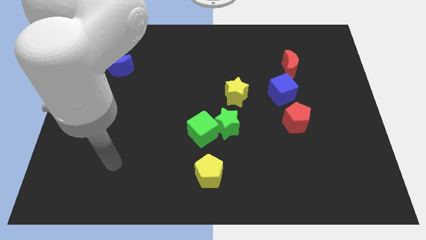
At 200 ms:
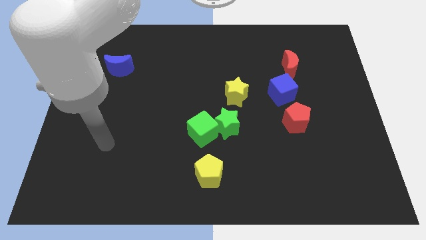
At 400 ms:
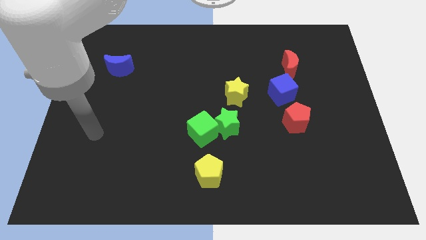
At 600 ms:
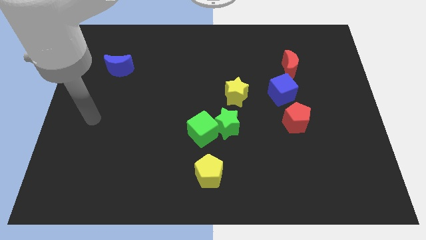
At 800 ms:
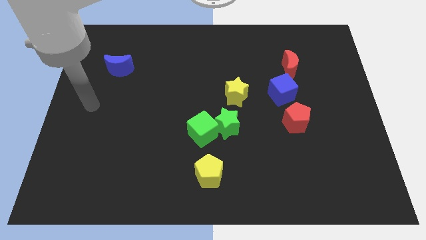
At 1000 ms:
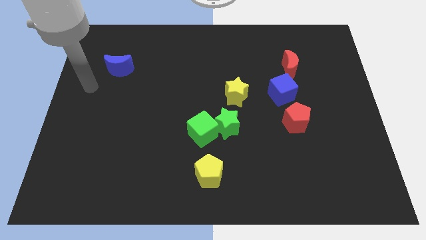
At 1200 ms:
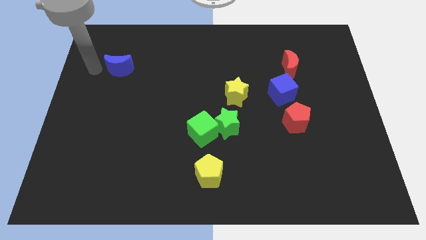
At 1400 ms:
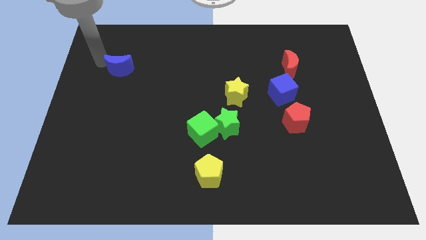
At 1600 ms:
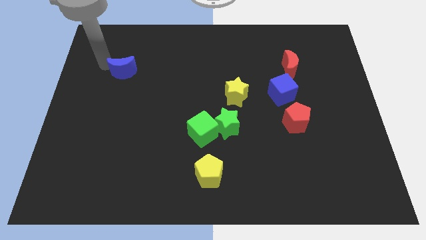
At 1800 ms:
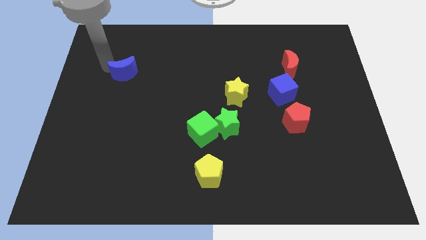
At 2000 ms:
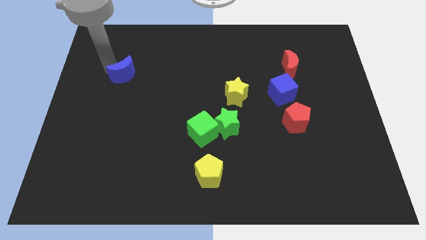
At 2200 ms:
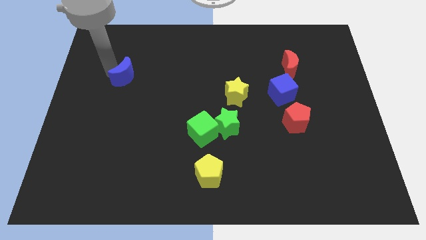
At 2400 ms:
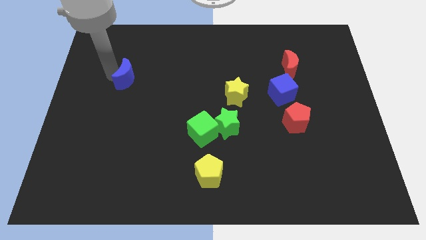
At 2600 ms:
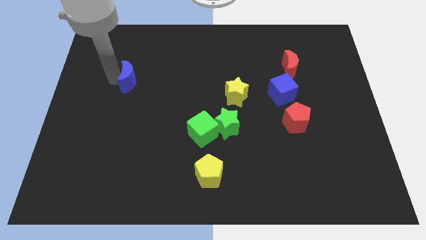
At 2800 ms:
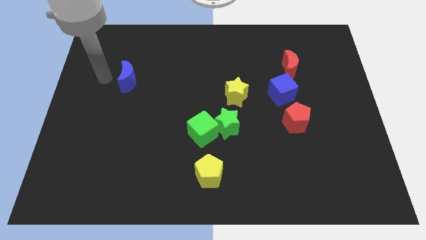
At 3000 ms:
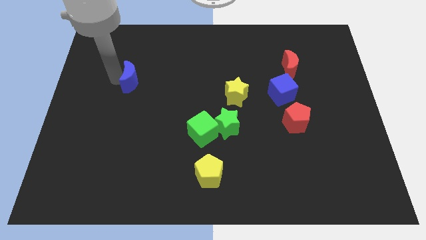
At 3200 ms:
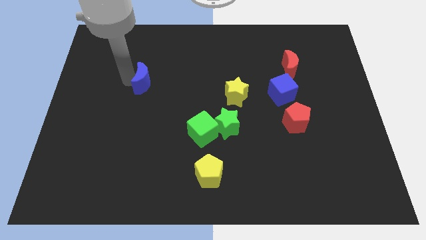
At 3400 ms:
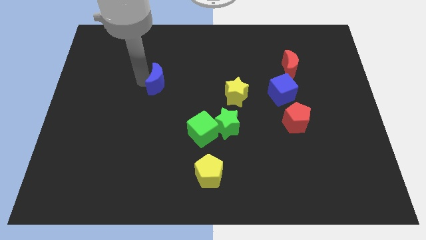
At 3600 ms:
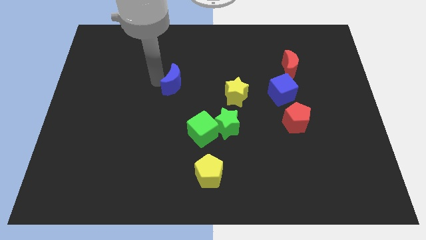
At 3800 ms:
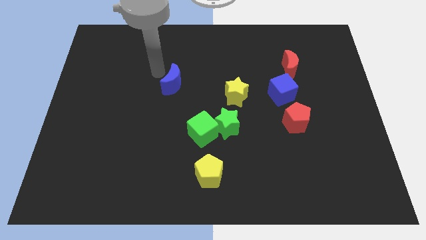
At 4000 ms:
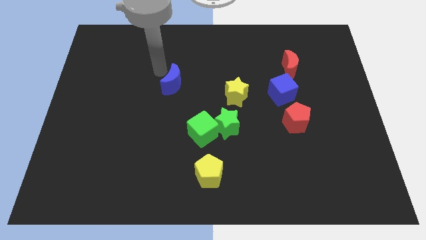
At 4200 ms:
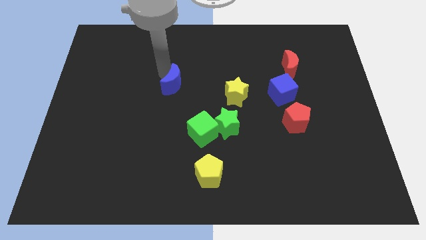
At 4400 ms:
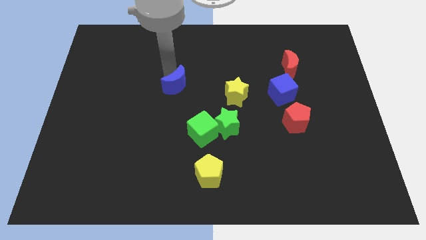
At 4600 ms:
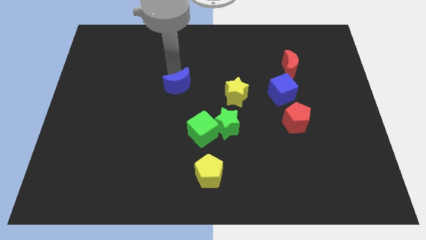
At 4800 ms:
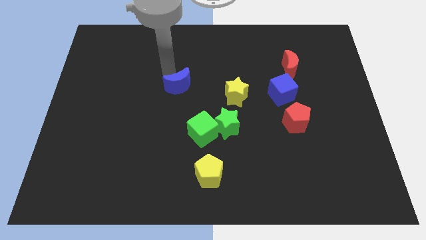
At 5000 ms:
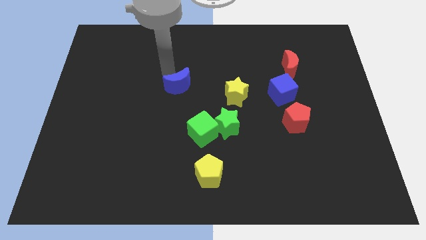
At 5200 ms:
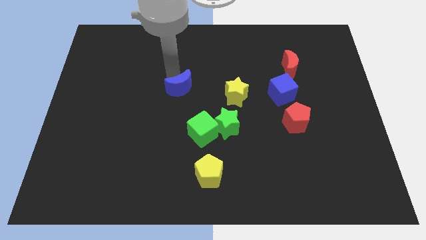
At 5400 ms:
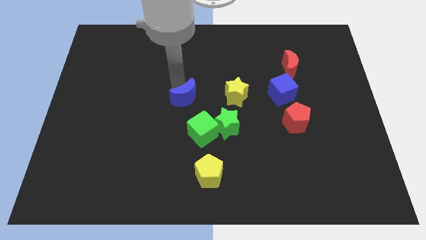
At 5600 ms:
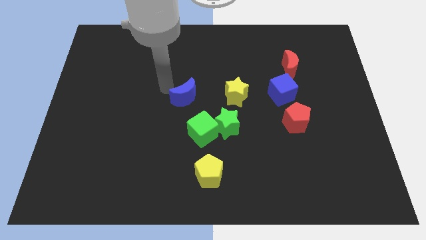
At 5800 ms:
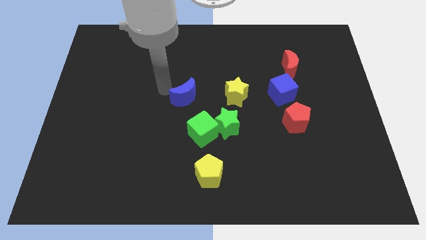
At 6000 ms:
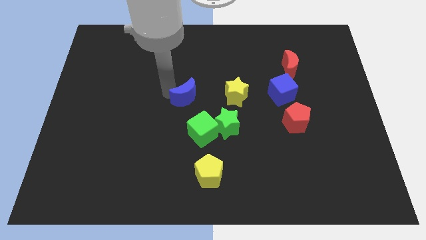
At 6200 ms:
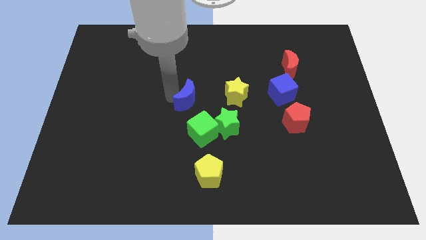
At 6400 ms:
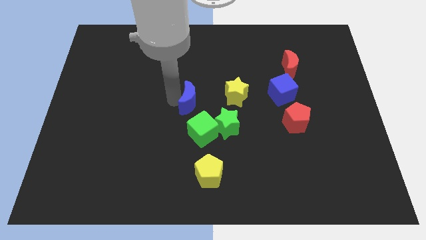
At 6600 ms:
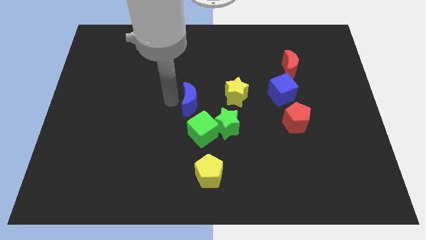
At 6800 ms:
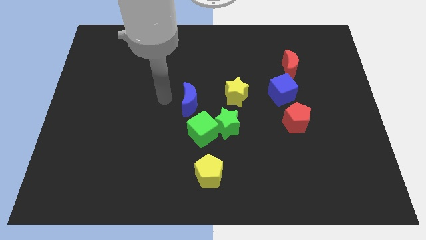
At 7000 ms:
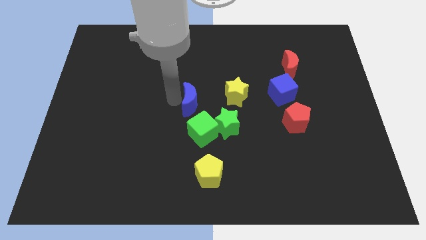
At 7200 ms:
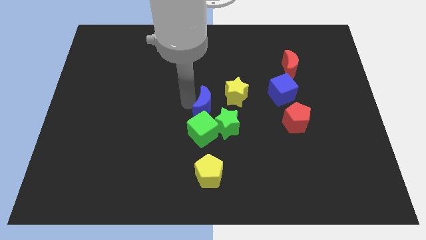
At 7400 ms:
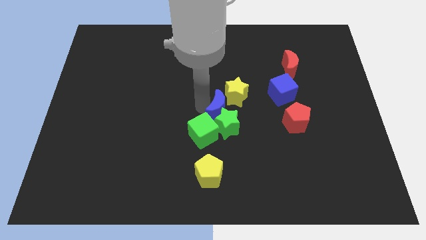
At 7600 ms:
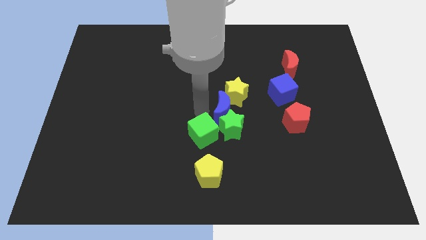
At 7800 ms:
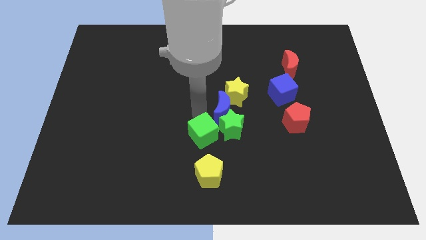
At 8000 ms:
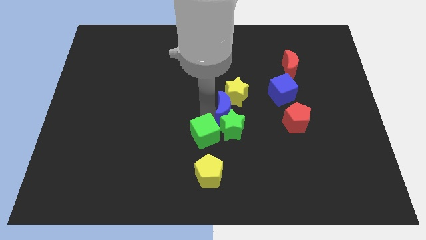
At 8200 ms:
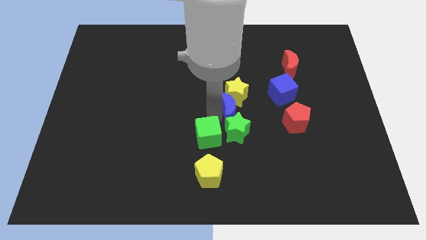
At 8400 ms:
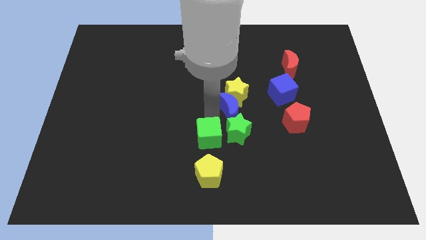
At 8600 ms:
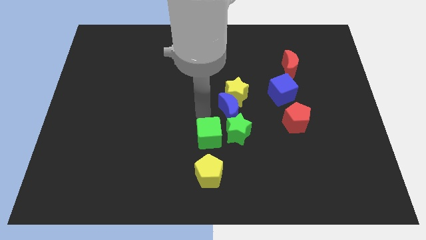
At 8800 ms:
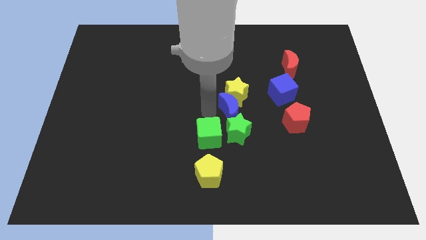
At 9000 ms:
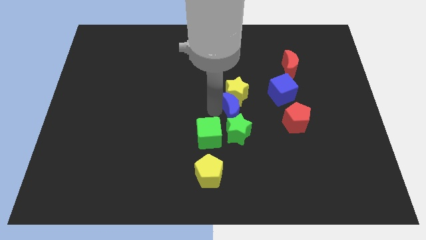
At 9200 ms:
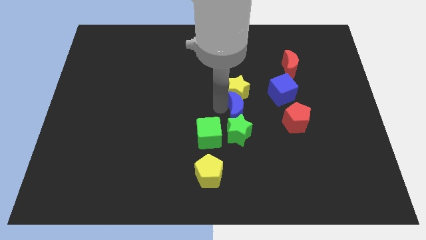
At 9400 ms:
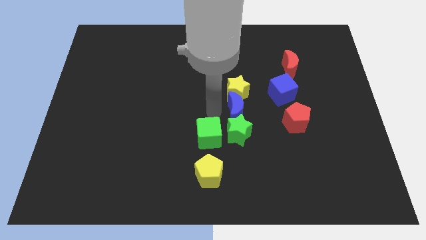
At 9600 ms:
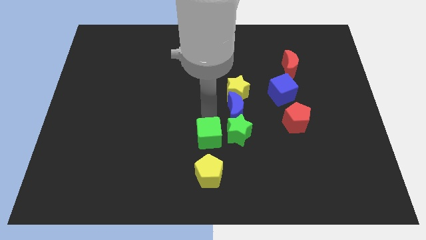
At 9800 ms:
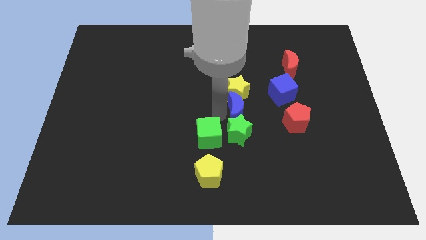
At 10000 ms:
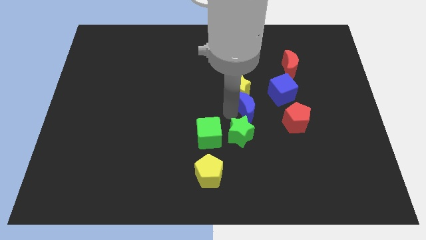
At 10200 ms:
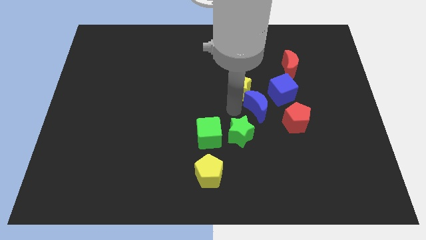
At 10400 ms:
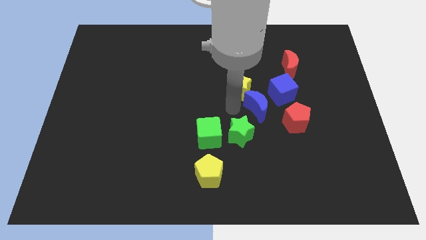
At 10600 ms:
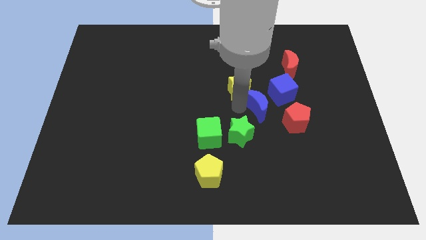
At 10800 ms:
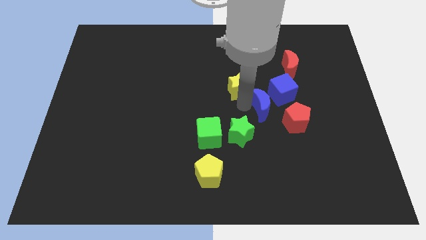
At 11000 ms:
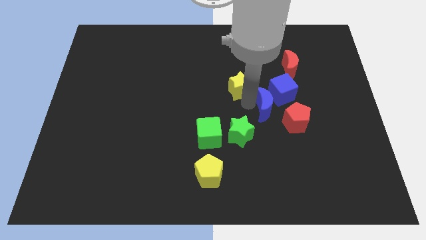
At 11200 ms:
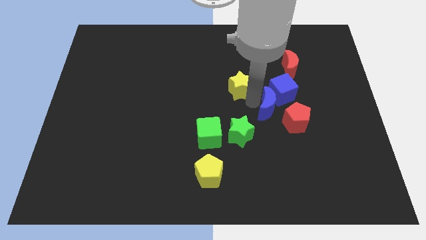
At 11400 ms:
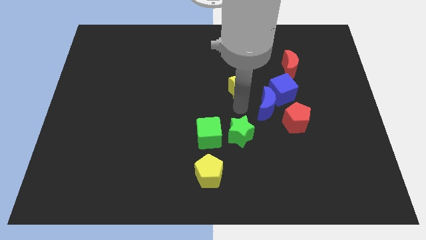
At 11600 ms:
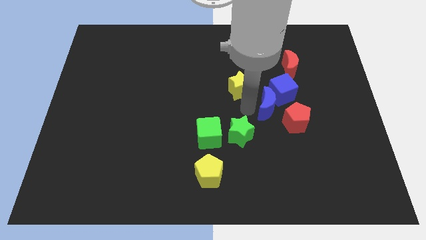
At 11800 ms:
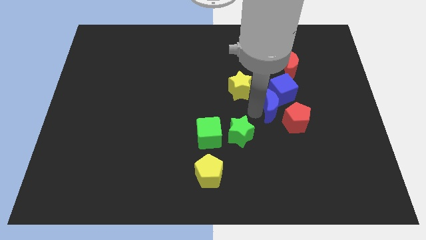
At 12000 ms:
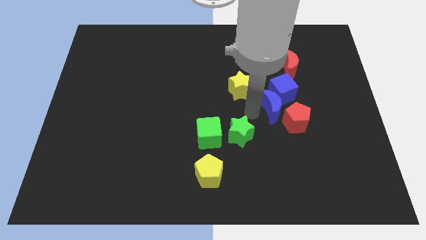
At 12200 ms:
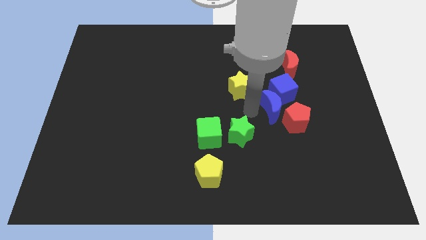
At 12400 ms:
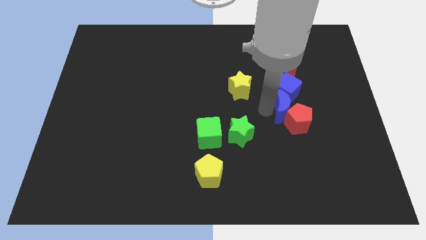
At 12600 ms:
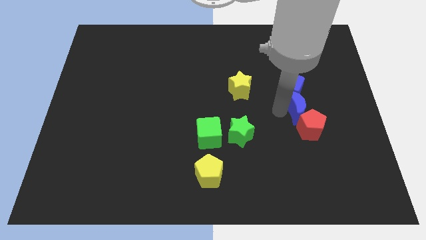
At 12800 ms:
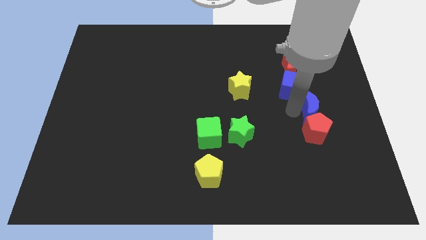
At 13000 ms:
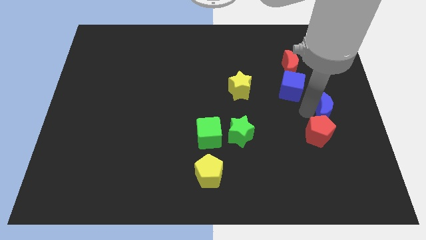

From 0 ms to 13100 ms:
slide the blue moon to the right side of the board

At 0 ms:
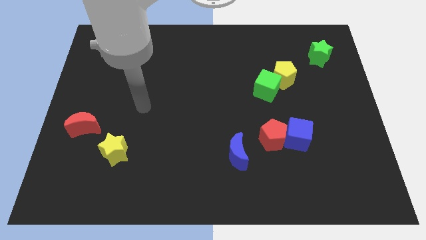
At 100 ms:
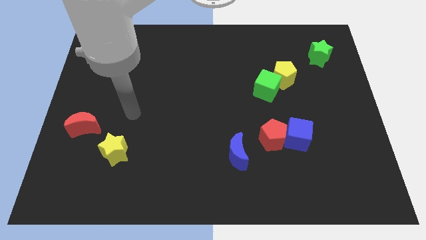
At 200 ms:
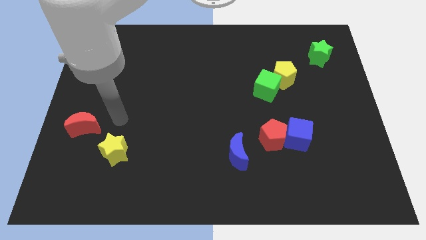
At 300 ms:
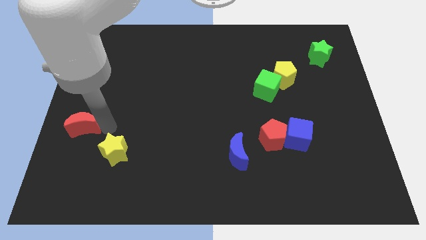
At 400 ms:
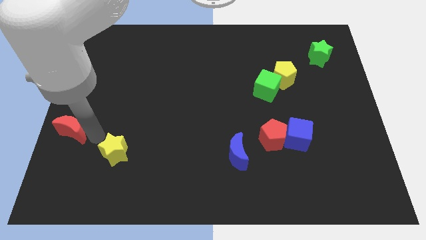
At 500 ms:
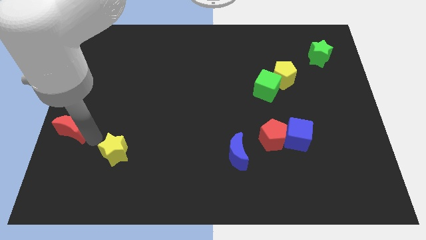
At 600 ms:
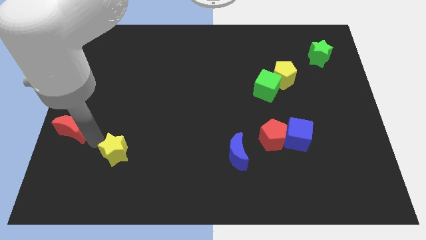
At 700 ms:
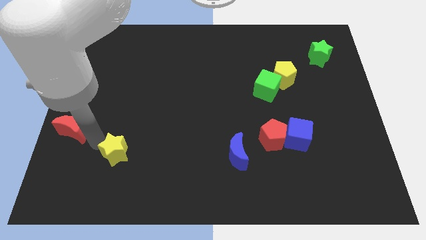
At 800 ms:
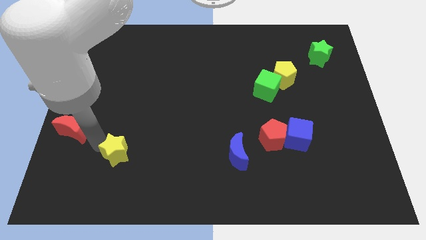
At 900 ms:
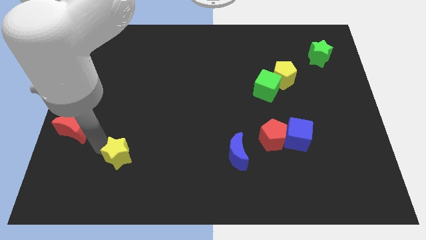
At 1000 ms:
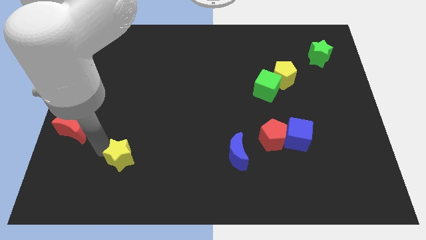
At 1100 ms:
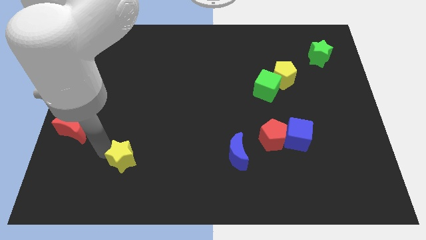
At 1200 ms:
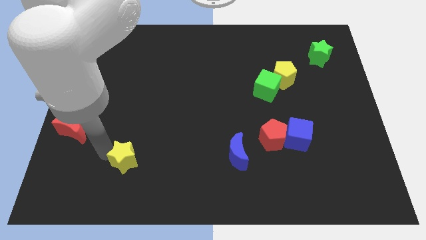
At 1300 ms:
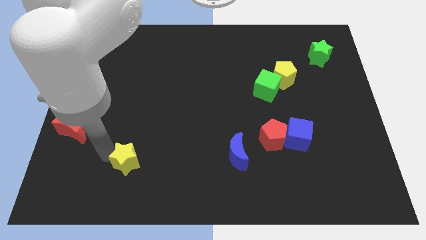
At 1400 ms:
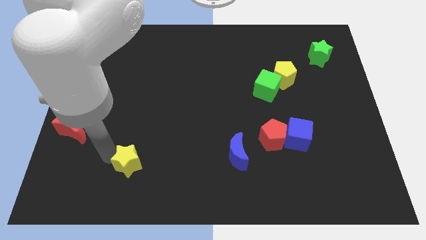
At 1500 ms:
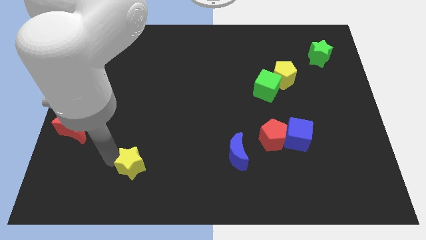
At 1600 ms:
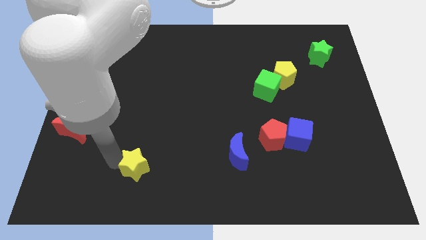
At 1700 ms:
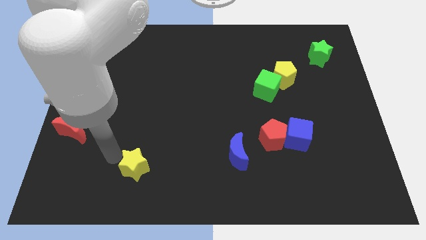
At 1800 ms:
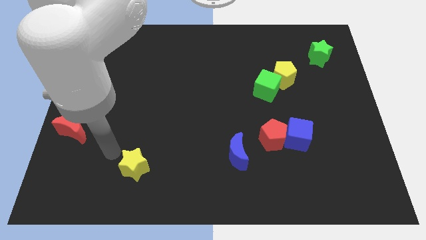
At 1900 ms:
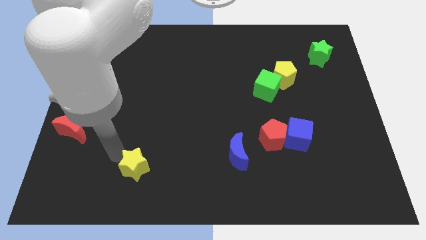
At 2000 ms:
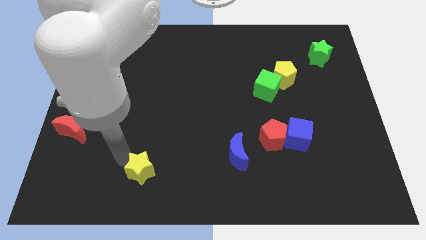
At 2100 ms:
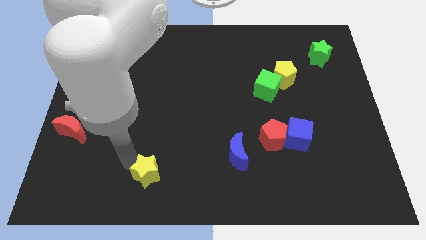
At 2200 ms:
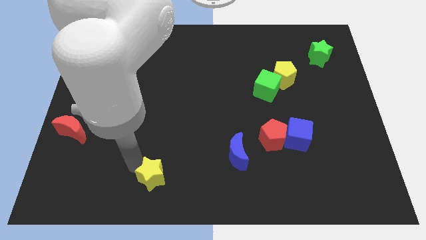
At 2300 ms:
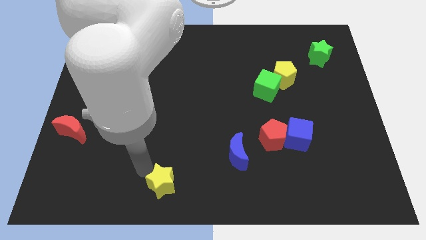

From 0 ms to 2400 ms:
put the yellow star to the bottom
